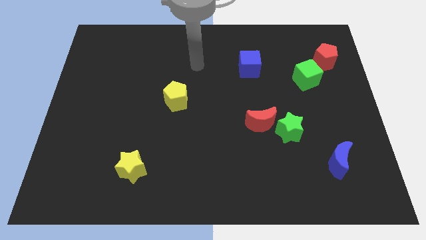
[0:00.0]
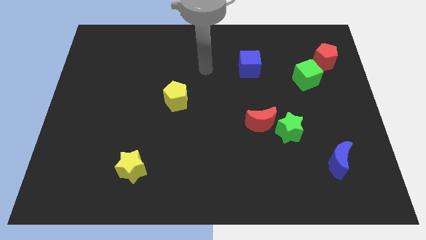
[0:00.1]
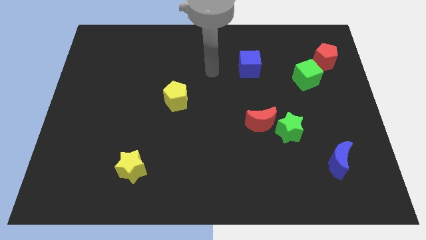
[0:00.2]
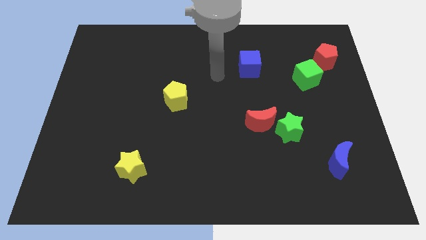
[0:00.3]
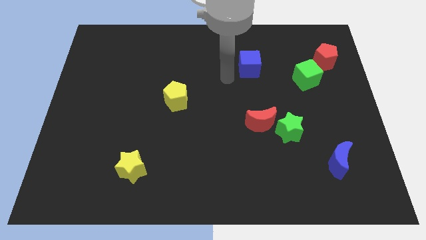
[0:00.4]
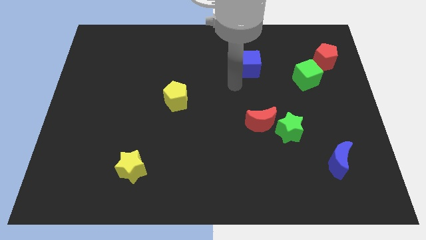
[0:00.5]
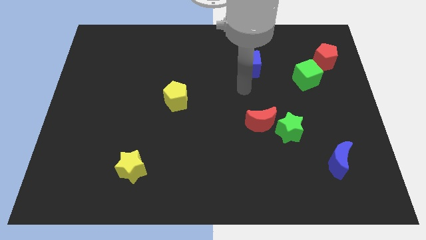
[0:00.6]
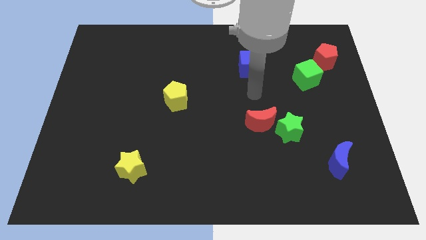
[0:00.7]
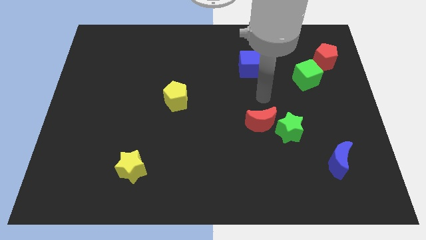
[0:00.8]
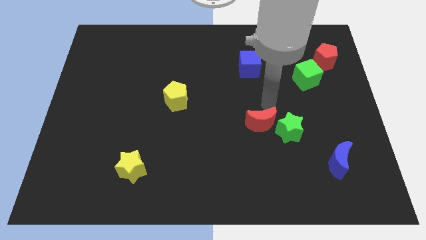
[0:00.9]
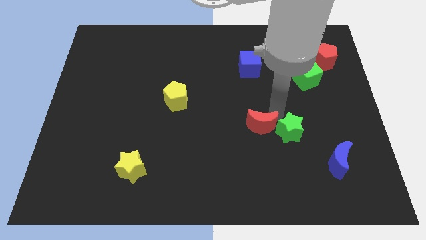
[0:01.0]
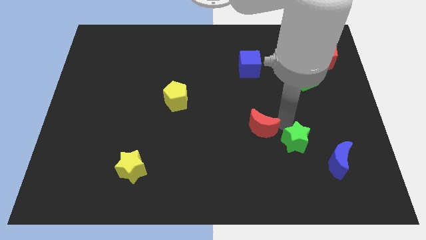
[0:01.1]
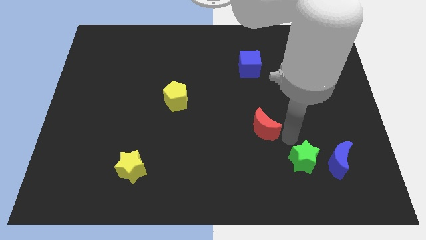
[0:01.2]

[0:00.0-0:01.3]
move the red moon away from the green star

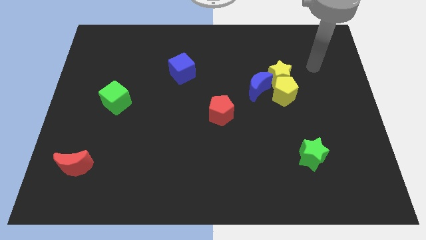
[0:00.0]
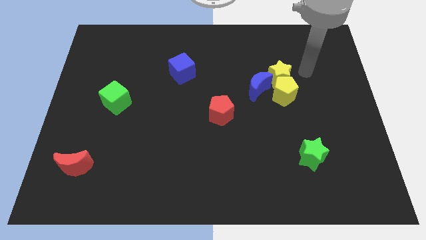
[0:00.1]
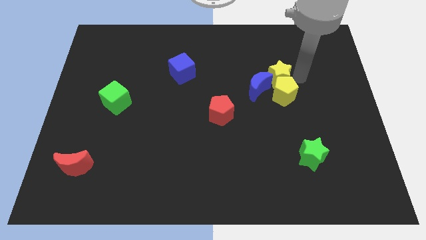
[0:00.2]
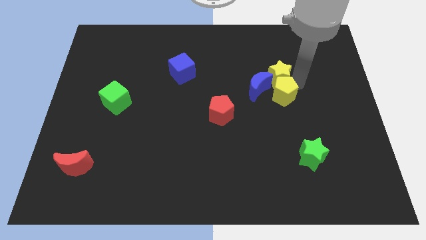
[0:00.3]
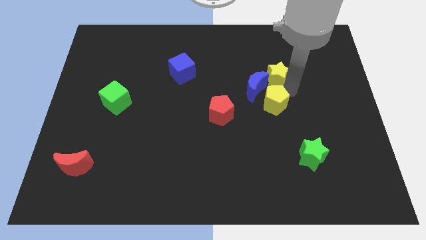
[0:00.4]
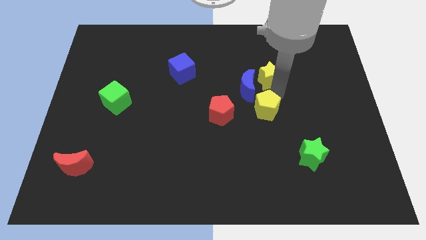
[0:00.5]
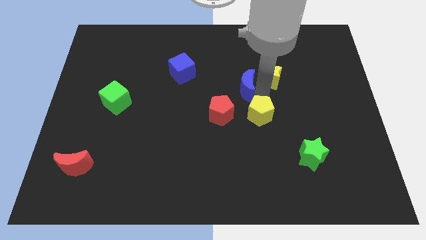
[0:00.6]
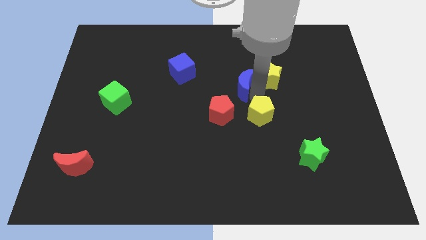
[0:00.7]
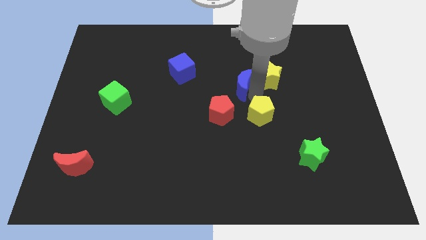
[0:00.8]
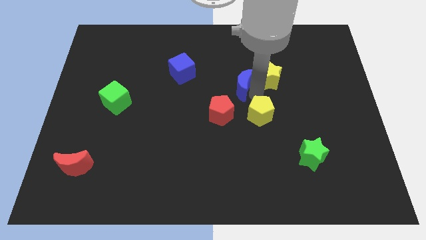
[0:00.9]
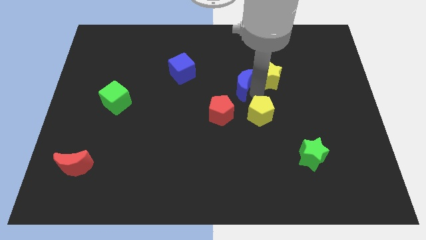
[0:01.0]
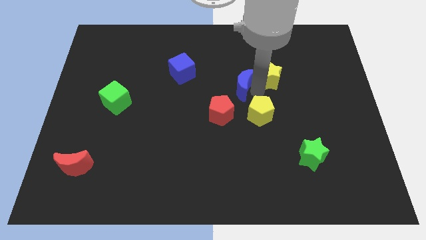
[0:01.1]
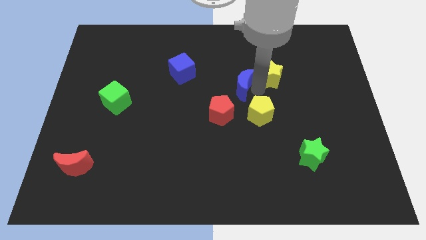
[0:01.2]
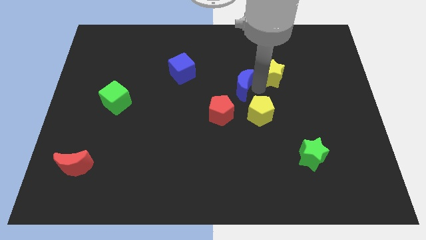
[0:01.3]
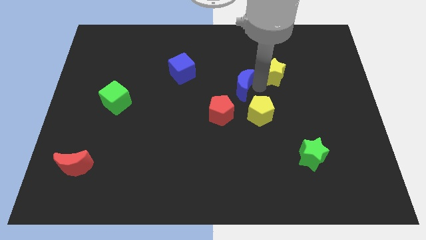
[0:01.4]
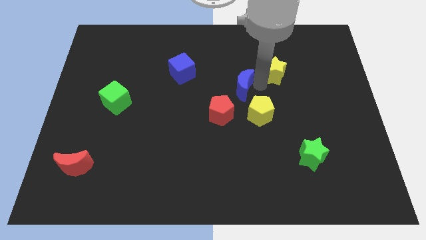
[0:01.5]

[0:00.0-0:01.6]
separate the yellow star from the yellow pentagon and blue moon

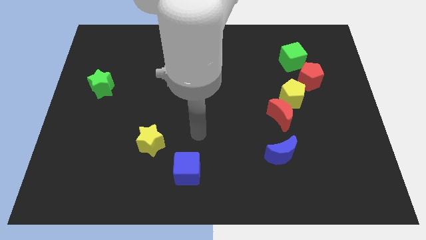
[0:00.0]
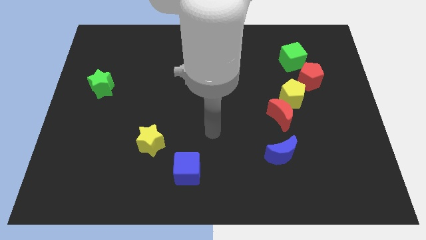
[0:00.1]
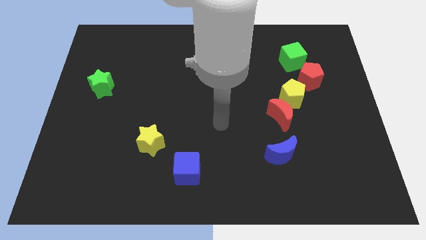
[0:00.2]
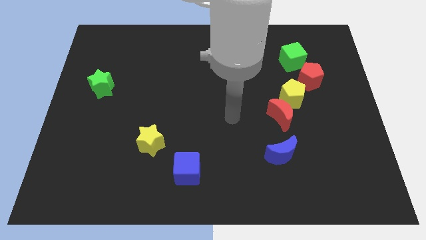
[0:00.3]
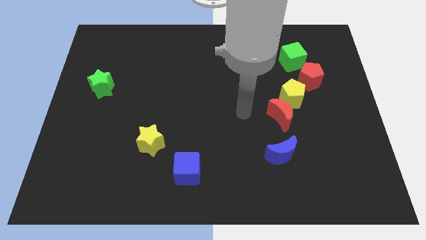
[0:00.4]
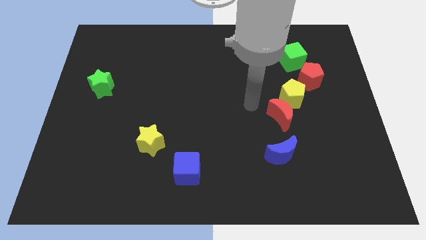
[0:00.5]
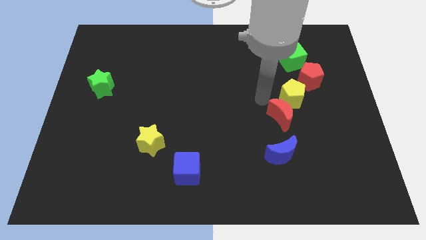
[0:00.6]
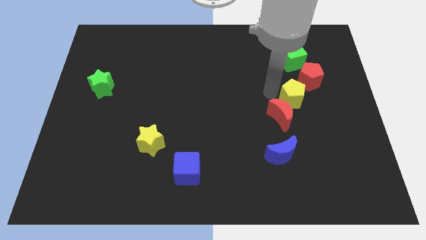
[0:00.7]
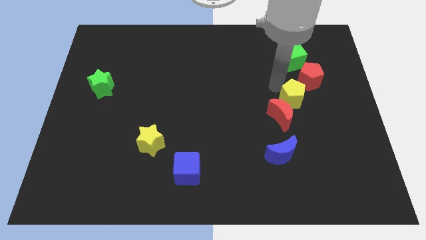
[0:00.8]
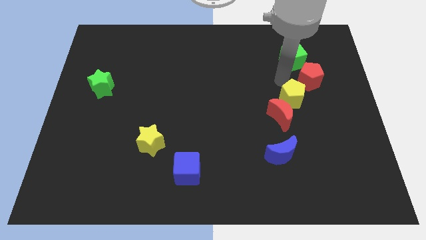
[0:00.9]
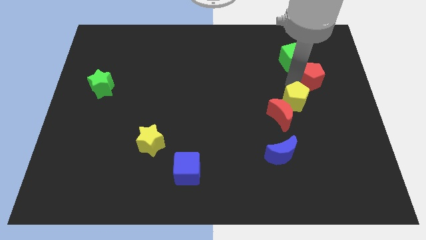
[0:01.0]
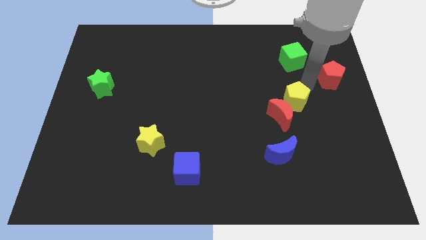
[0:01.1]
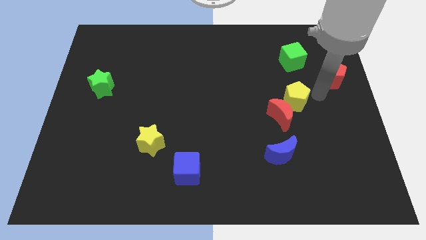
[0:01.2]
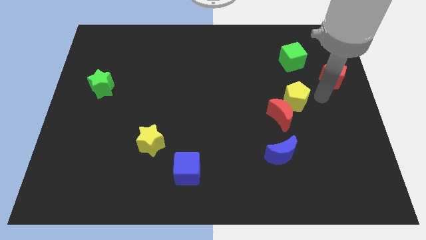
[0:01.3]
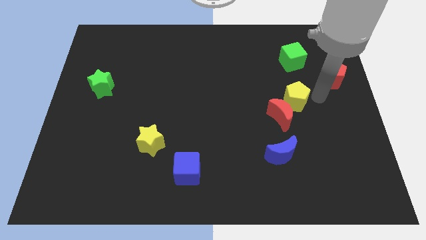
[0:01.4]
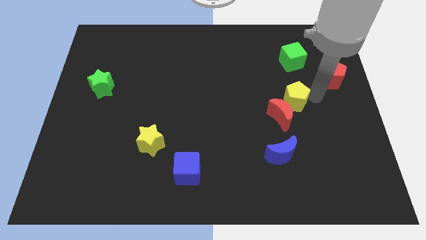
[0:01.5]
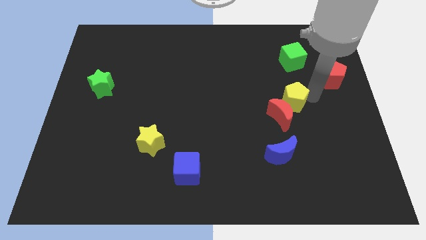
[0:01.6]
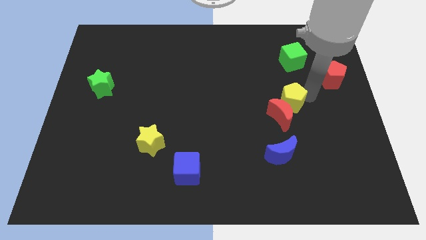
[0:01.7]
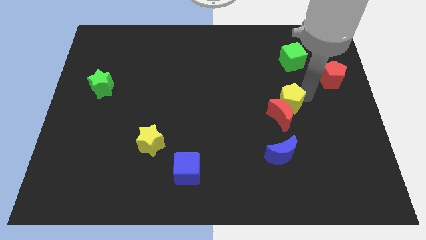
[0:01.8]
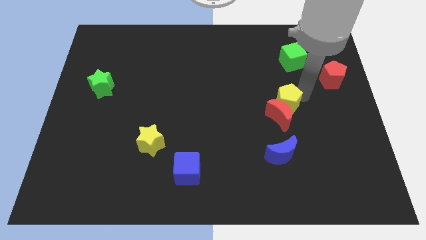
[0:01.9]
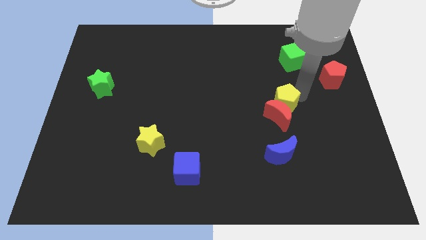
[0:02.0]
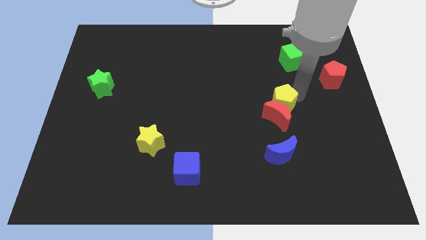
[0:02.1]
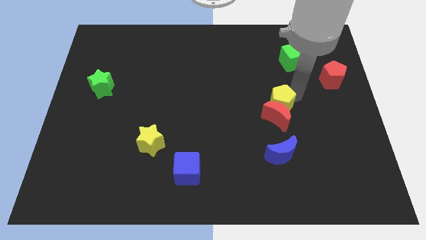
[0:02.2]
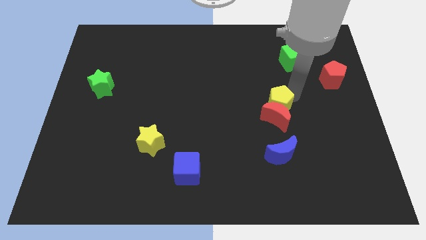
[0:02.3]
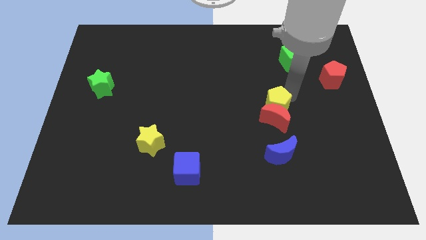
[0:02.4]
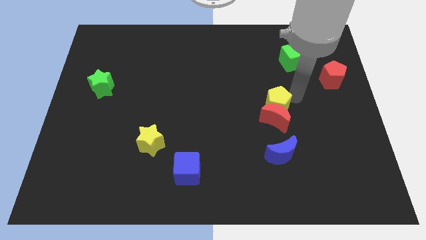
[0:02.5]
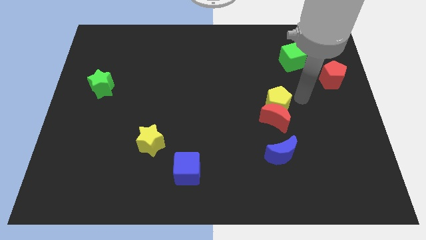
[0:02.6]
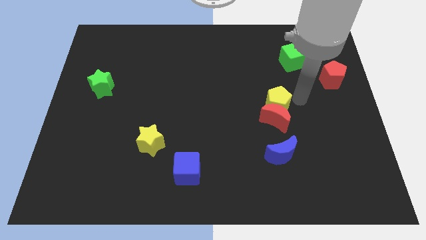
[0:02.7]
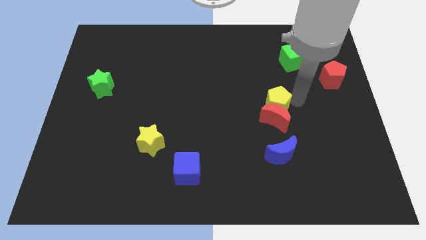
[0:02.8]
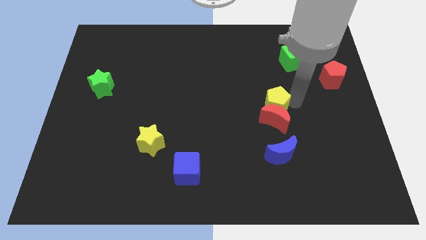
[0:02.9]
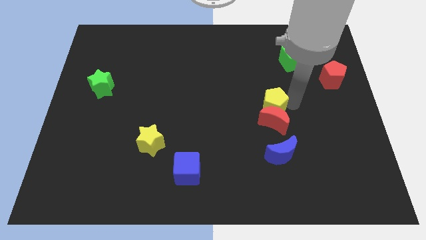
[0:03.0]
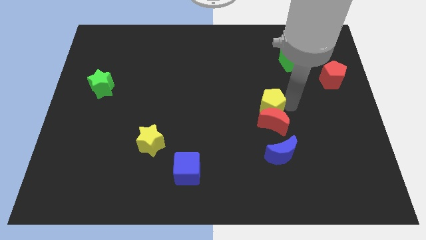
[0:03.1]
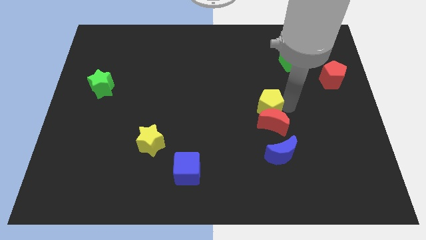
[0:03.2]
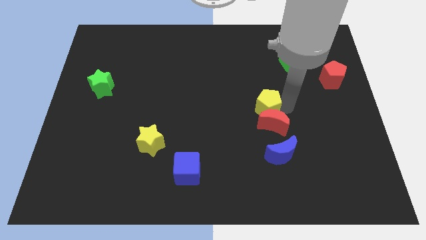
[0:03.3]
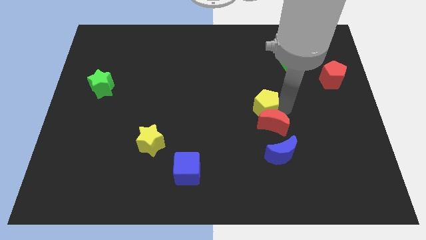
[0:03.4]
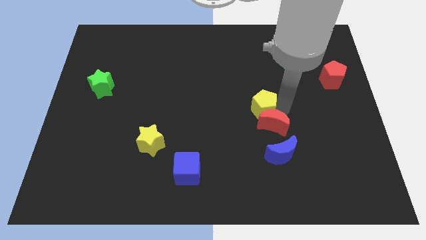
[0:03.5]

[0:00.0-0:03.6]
pull the yellow pentagon apart from the red moon and red pentagon

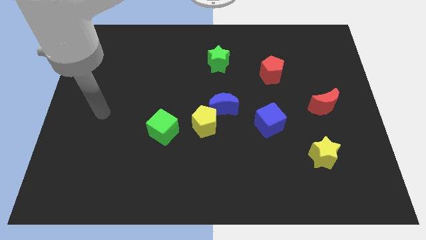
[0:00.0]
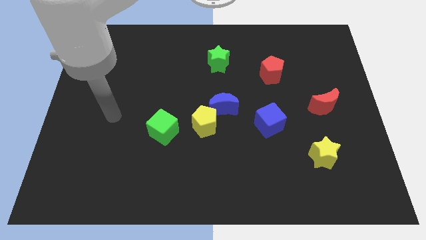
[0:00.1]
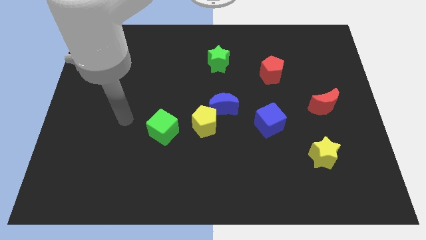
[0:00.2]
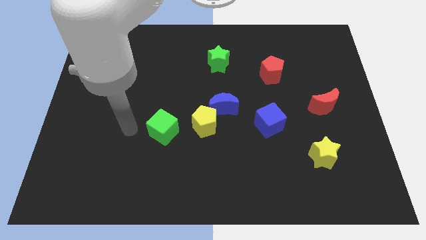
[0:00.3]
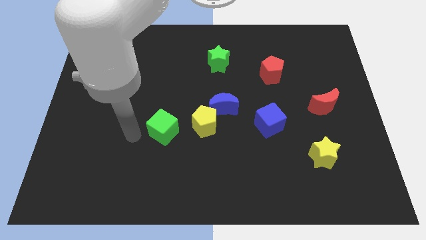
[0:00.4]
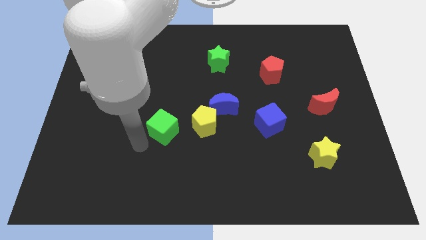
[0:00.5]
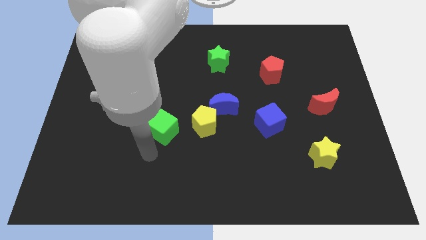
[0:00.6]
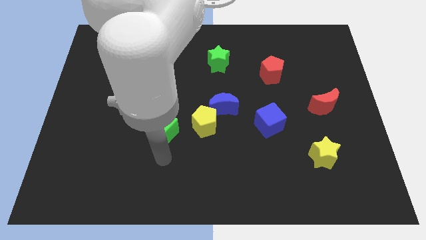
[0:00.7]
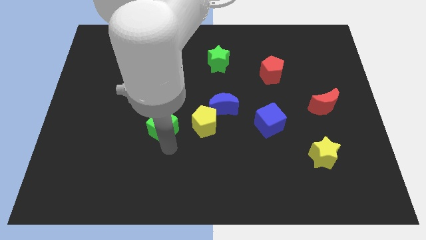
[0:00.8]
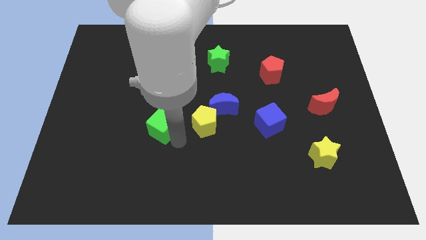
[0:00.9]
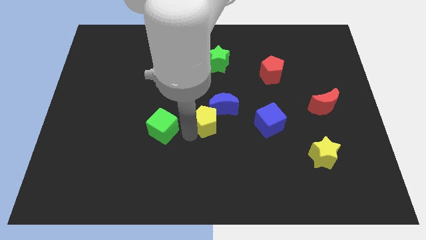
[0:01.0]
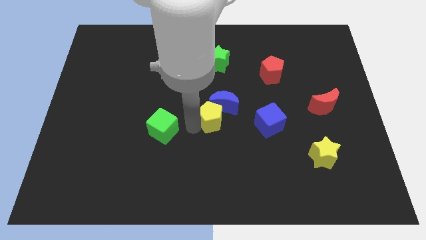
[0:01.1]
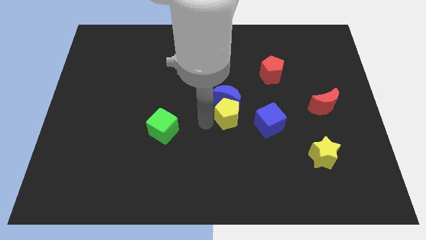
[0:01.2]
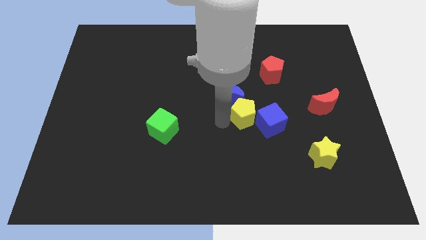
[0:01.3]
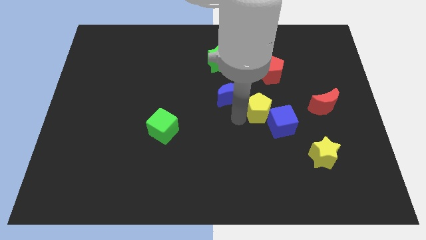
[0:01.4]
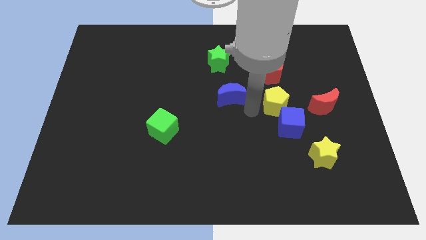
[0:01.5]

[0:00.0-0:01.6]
pull the blue moon apart from the yellow pentagon

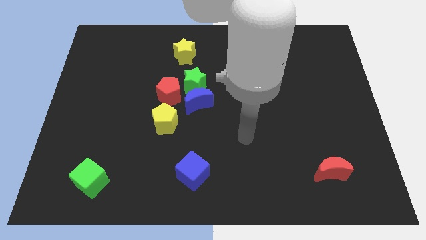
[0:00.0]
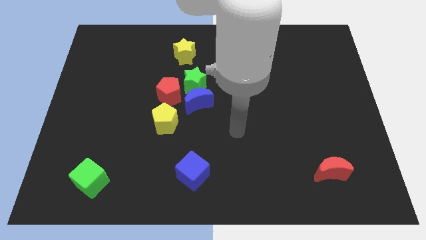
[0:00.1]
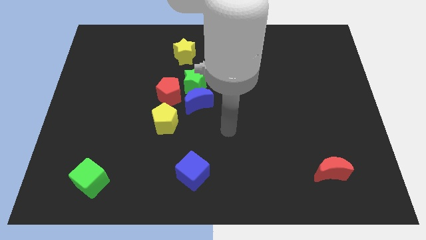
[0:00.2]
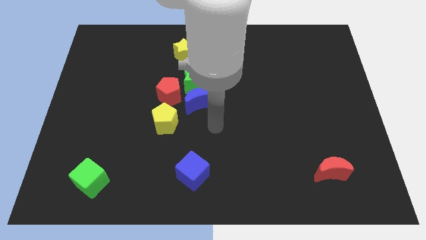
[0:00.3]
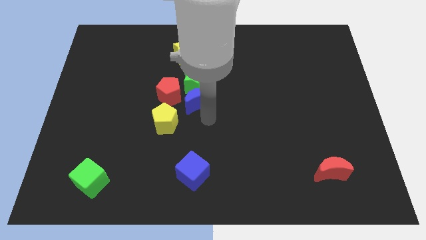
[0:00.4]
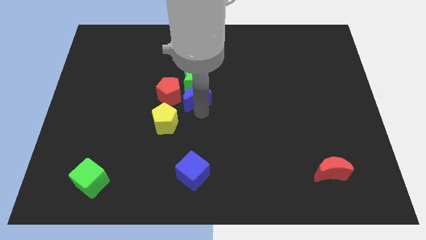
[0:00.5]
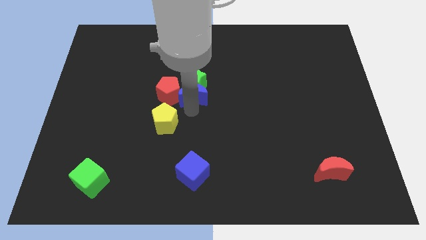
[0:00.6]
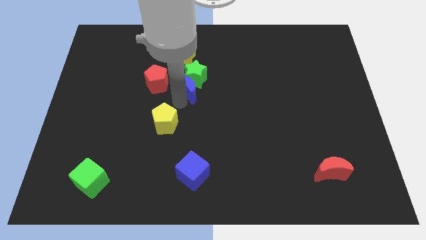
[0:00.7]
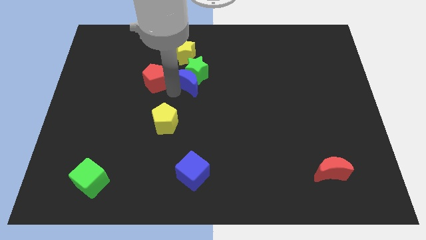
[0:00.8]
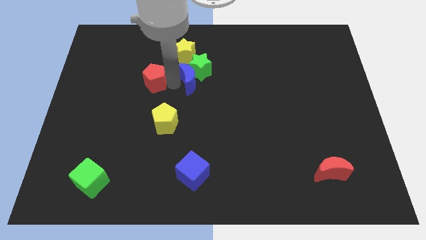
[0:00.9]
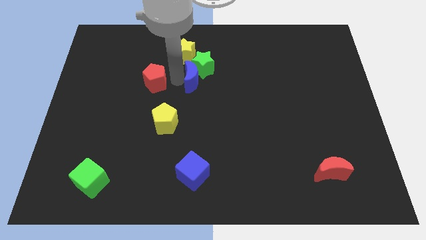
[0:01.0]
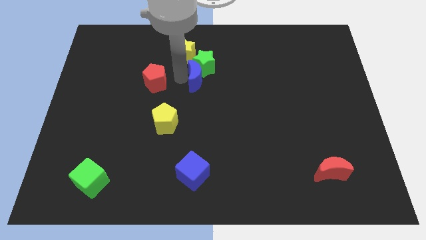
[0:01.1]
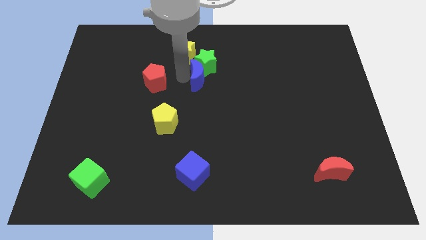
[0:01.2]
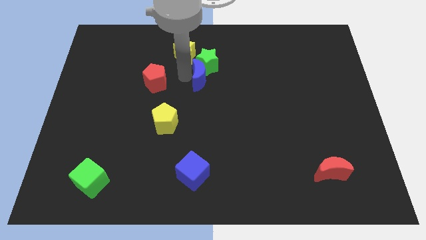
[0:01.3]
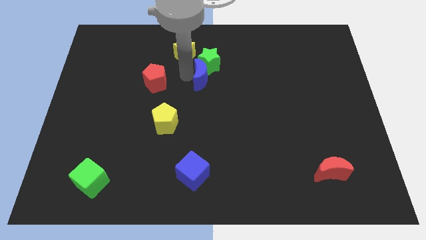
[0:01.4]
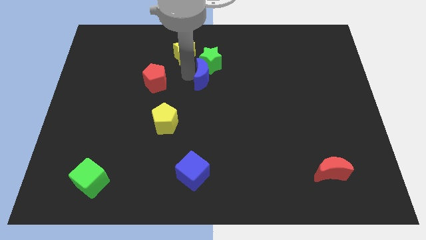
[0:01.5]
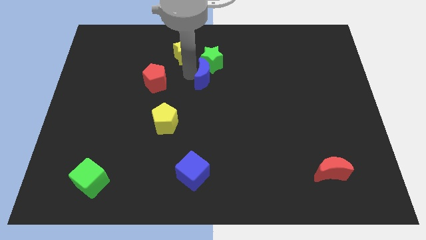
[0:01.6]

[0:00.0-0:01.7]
separate the green star from the blue moon and red pentagon
